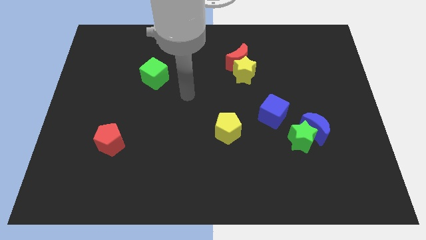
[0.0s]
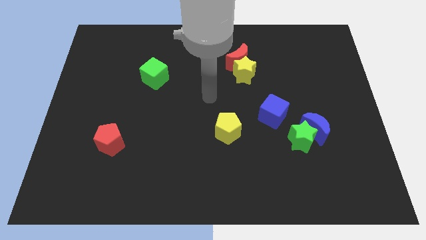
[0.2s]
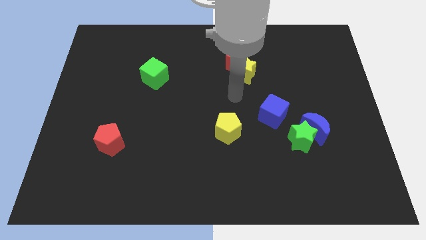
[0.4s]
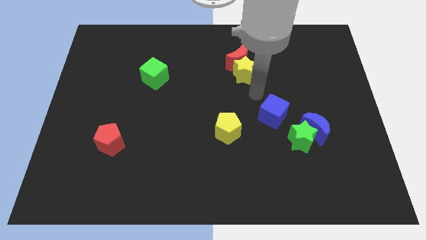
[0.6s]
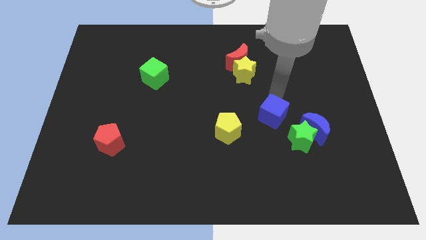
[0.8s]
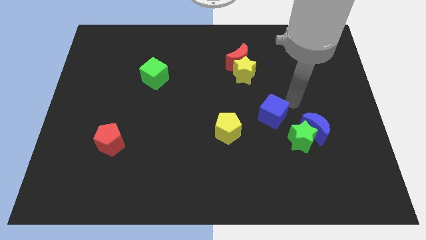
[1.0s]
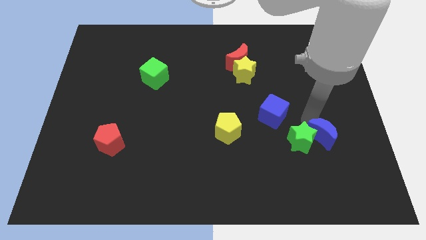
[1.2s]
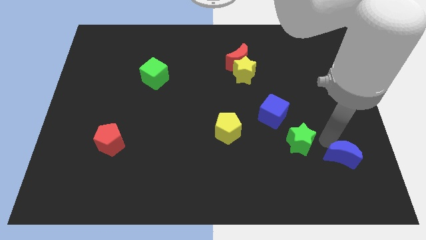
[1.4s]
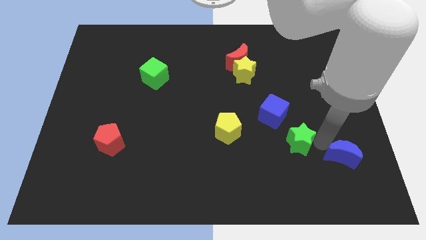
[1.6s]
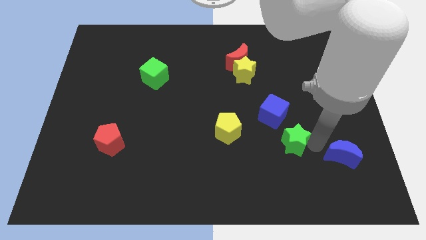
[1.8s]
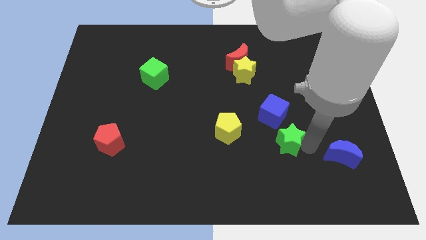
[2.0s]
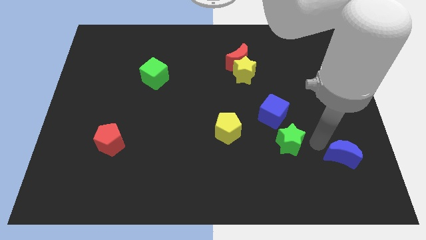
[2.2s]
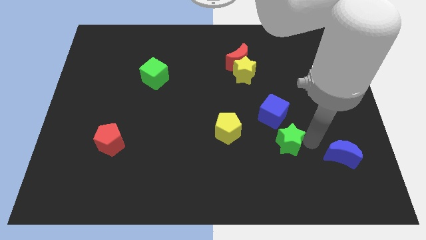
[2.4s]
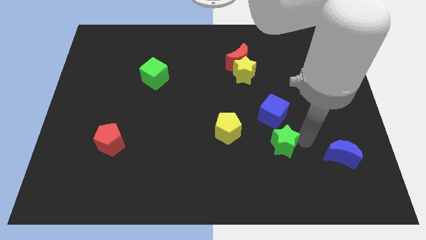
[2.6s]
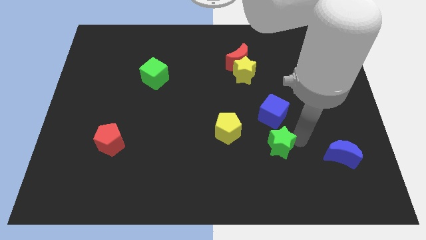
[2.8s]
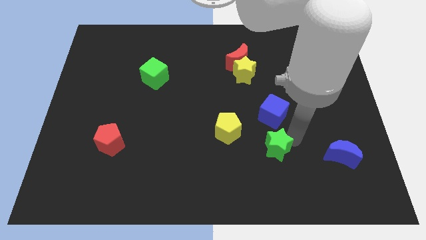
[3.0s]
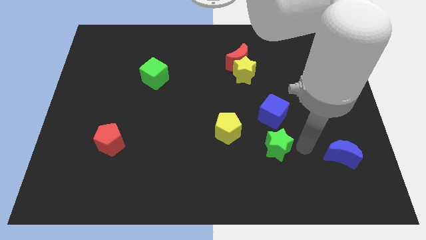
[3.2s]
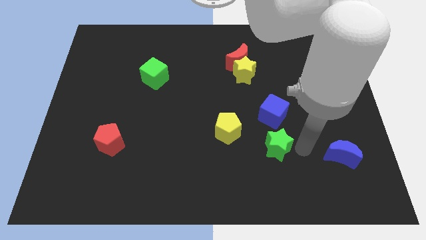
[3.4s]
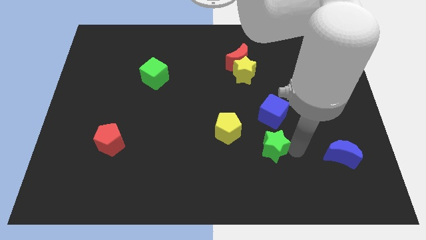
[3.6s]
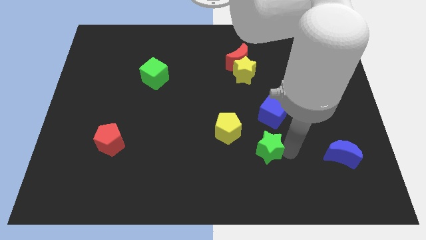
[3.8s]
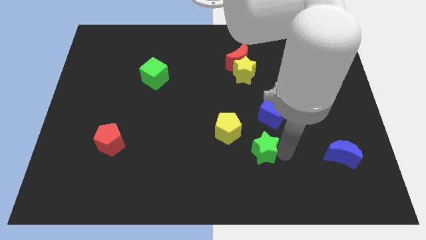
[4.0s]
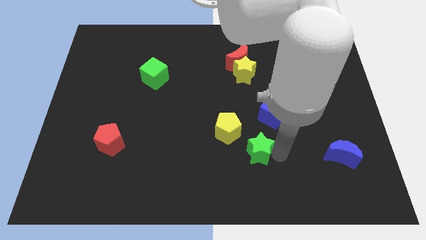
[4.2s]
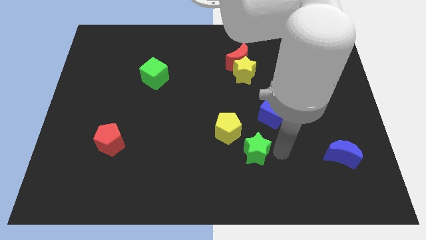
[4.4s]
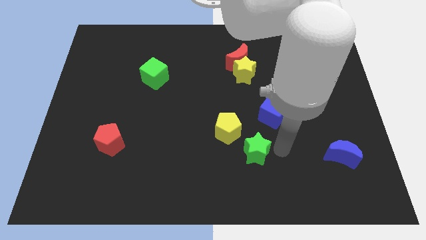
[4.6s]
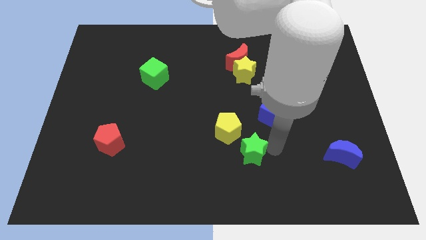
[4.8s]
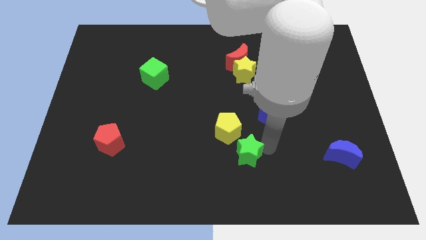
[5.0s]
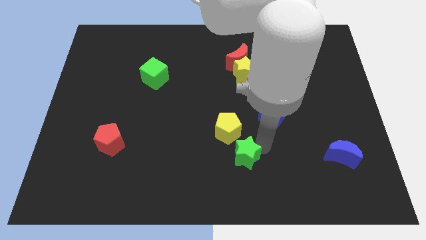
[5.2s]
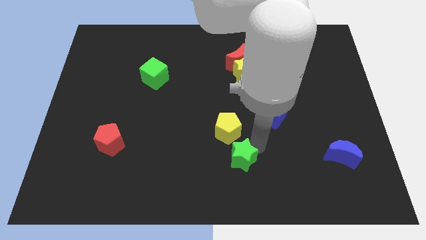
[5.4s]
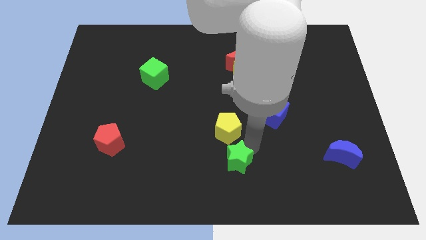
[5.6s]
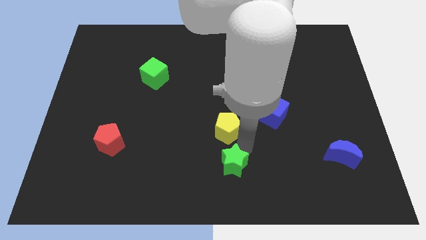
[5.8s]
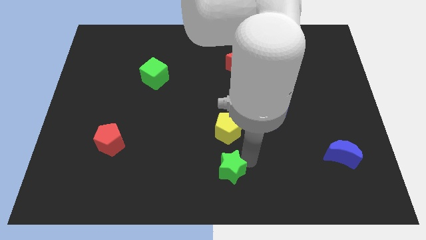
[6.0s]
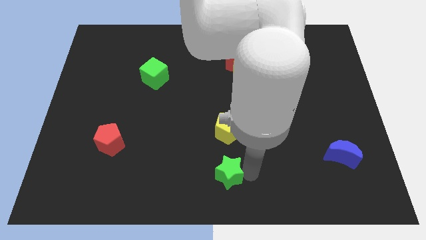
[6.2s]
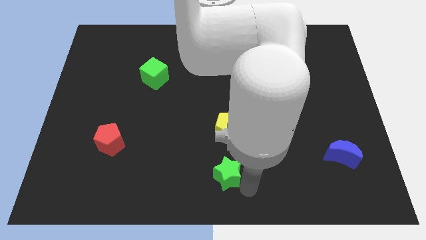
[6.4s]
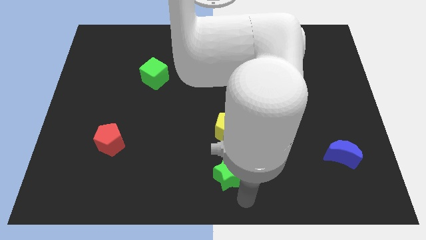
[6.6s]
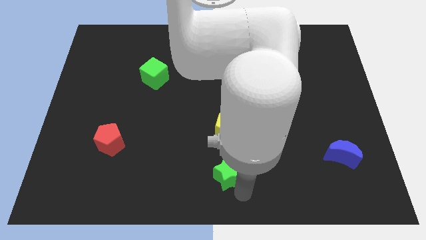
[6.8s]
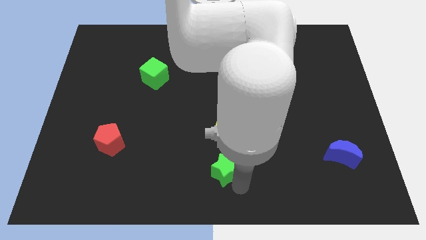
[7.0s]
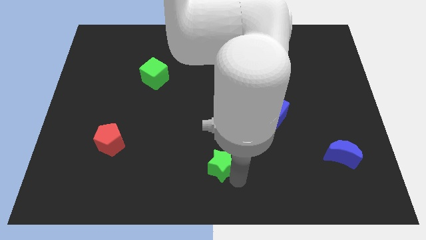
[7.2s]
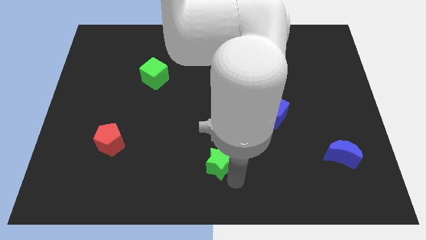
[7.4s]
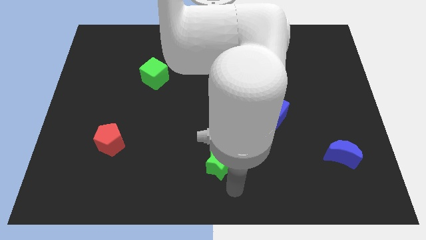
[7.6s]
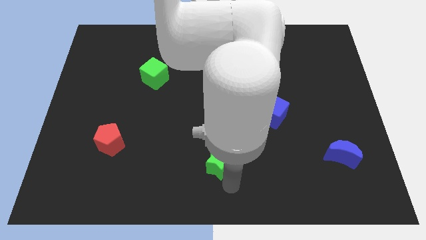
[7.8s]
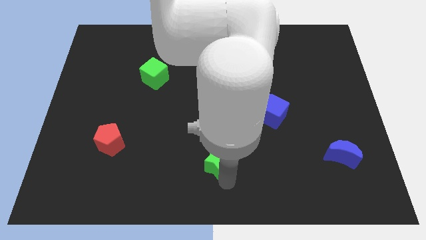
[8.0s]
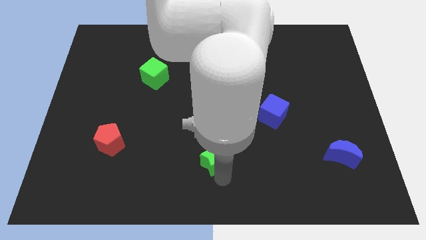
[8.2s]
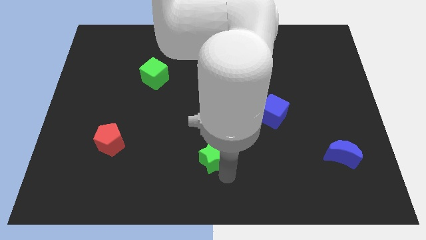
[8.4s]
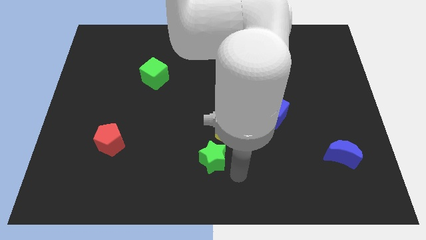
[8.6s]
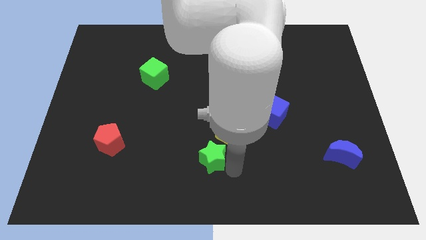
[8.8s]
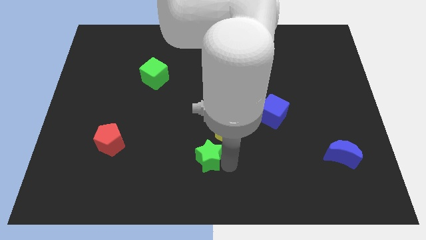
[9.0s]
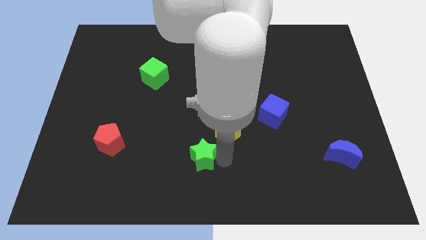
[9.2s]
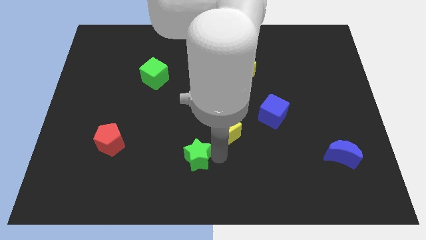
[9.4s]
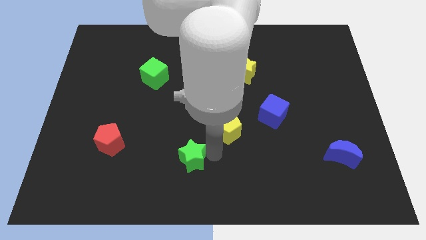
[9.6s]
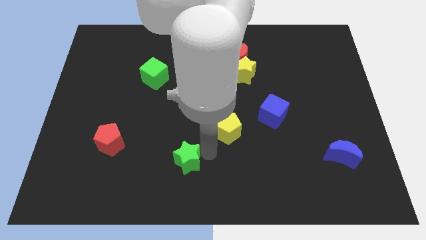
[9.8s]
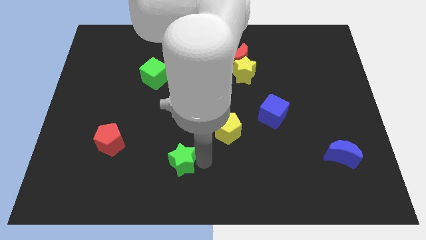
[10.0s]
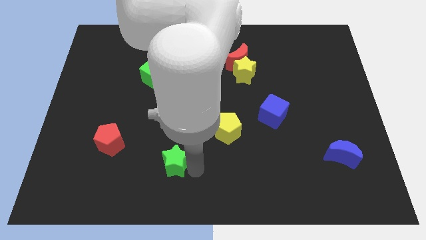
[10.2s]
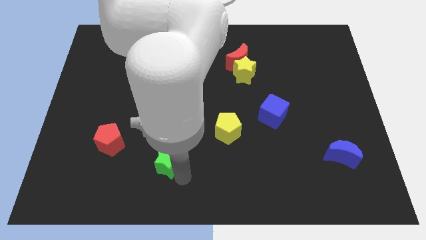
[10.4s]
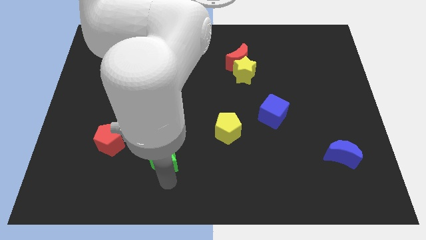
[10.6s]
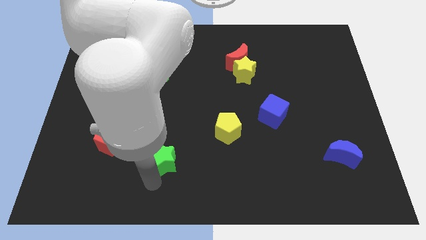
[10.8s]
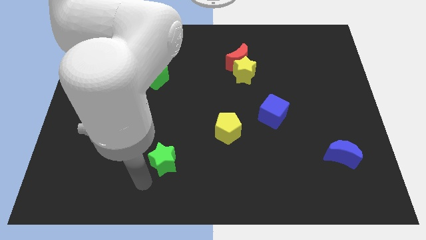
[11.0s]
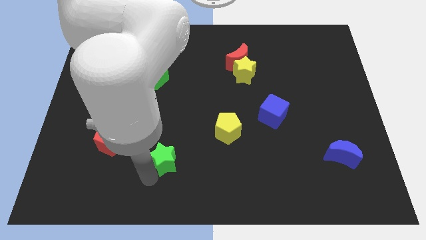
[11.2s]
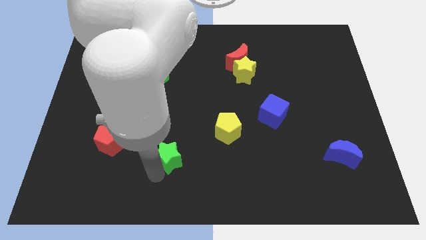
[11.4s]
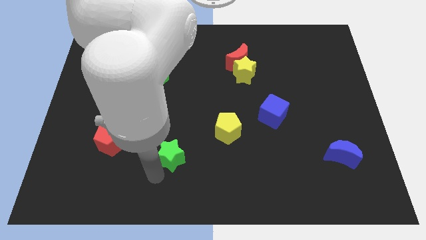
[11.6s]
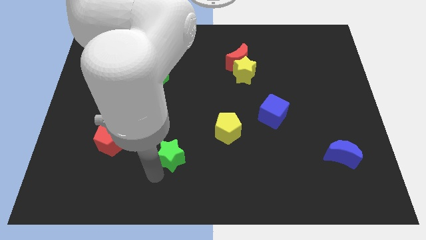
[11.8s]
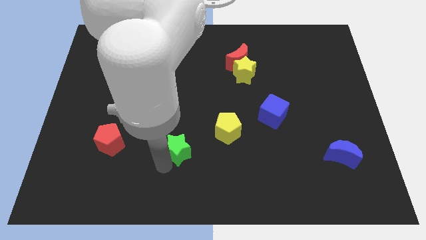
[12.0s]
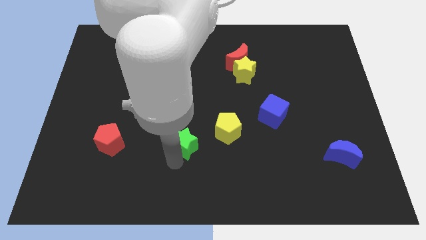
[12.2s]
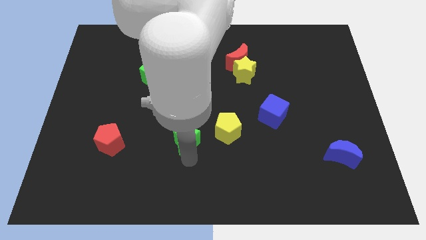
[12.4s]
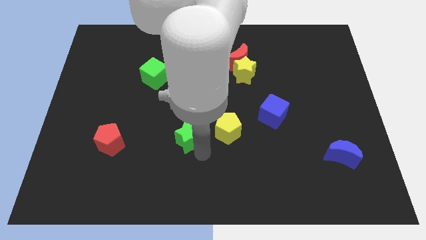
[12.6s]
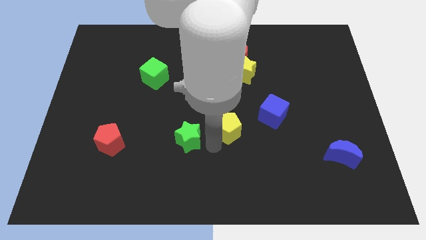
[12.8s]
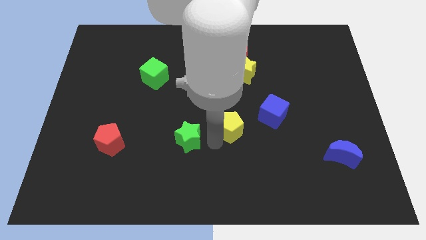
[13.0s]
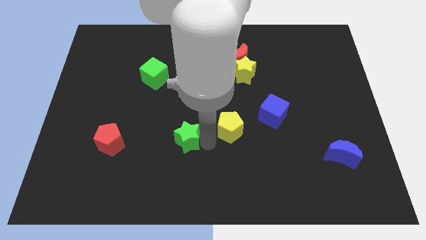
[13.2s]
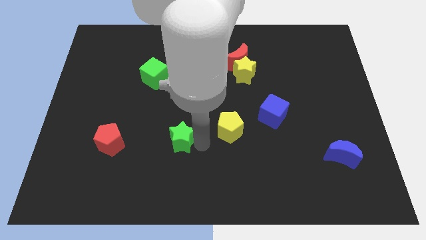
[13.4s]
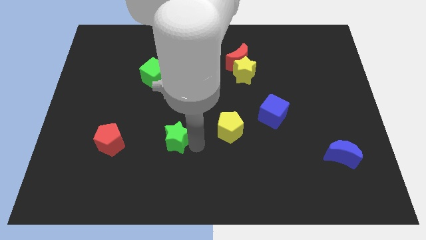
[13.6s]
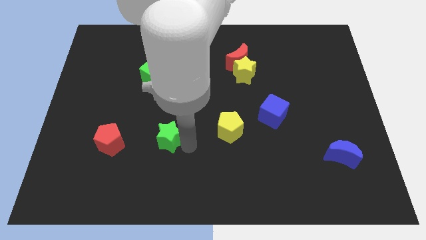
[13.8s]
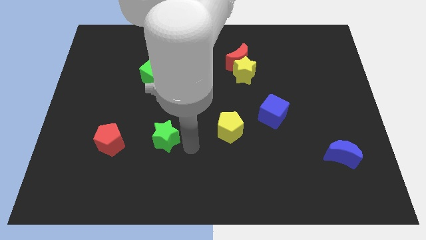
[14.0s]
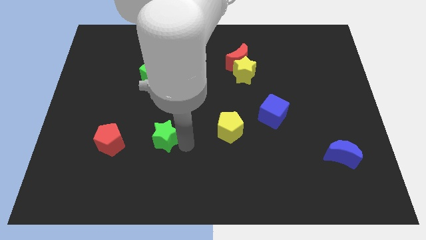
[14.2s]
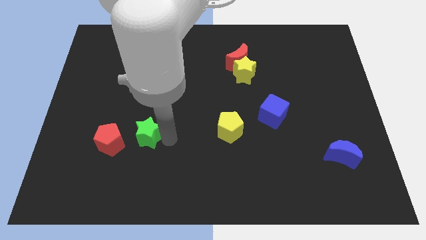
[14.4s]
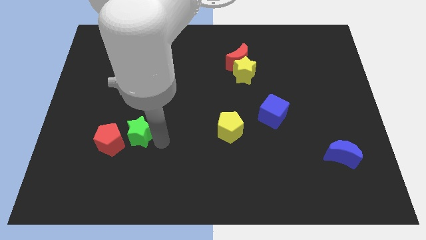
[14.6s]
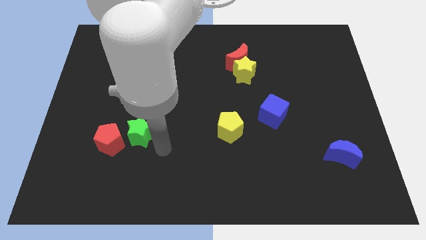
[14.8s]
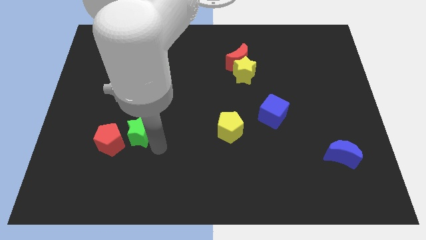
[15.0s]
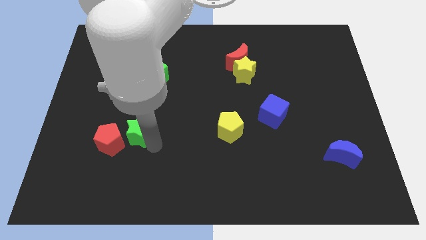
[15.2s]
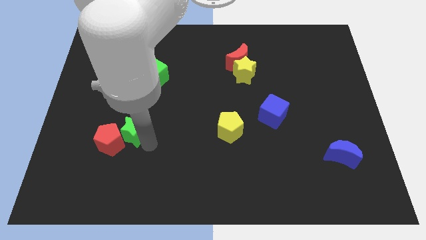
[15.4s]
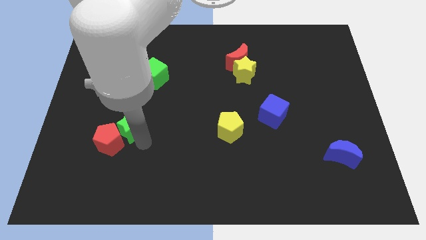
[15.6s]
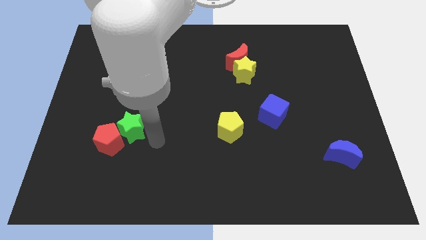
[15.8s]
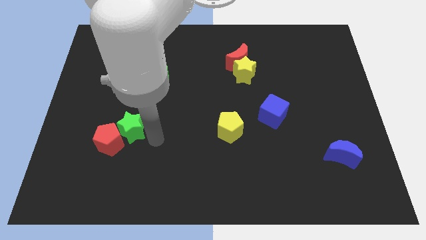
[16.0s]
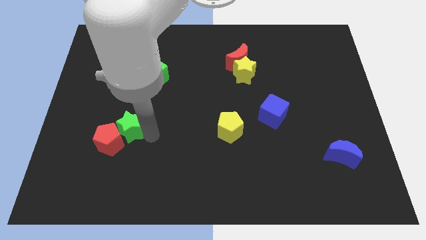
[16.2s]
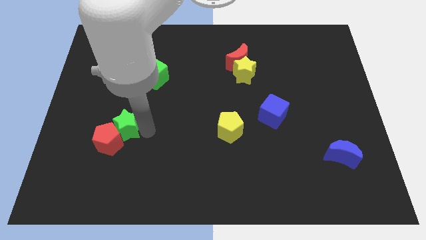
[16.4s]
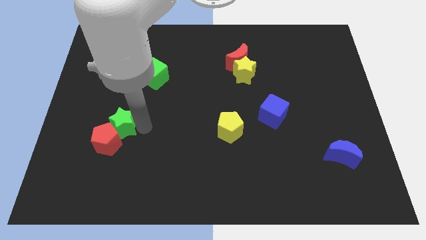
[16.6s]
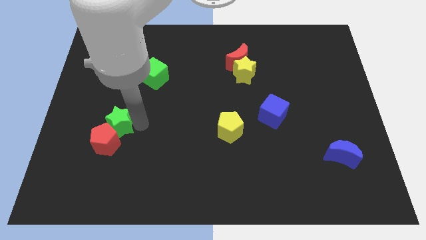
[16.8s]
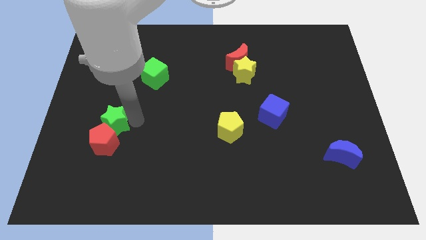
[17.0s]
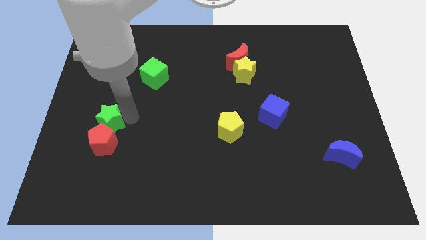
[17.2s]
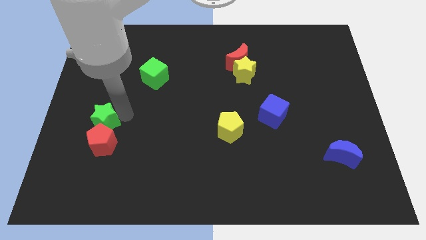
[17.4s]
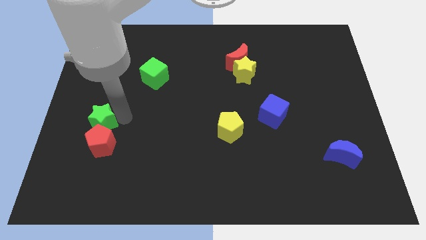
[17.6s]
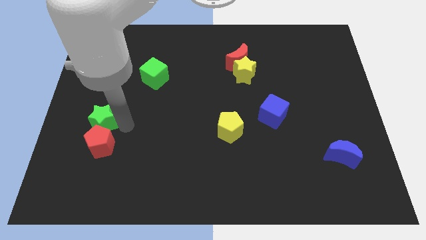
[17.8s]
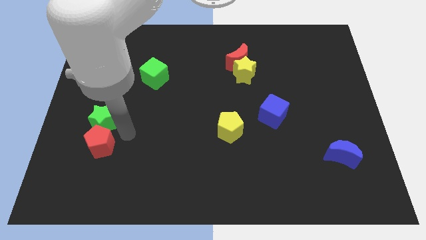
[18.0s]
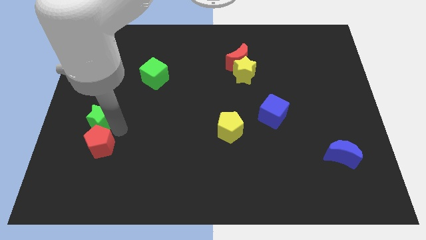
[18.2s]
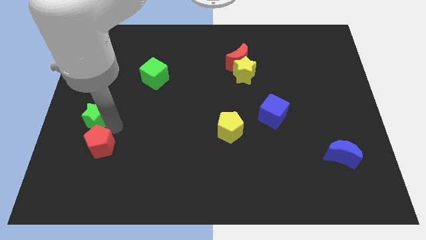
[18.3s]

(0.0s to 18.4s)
put the green star to the left side
